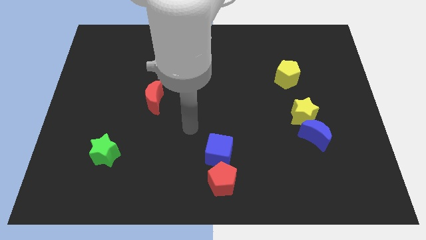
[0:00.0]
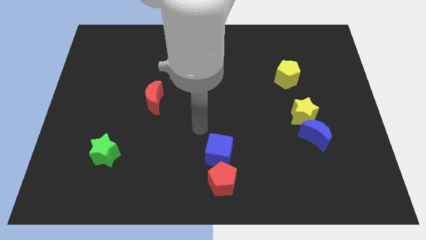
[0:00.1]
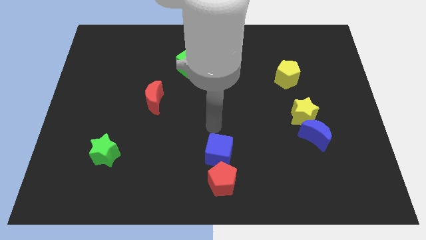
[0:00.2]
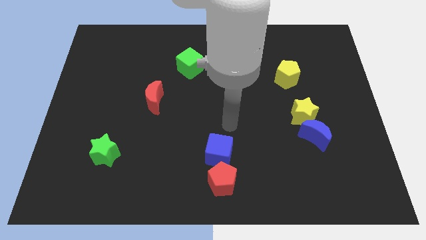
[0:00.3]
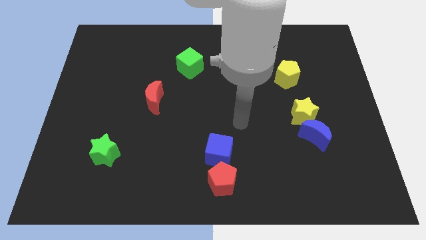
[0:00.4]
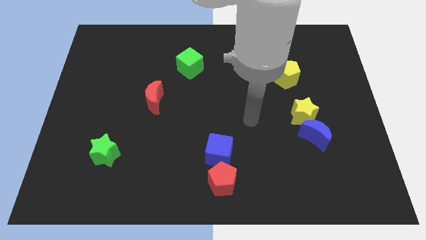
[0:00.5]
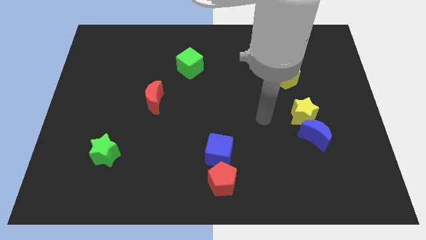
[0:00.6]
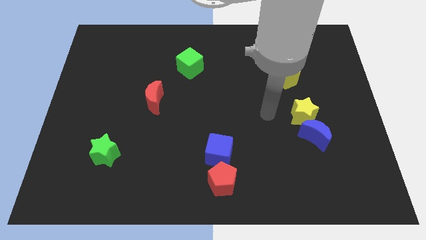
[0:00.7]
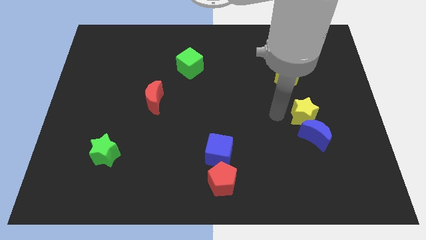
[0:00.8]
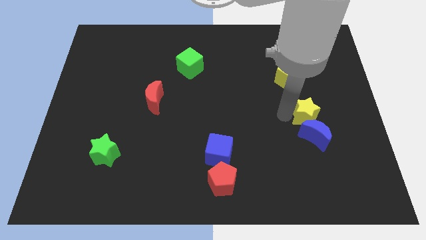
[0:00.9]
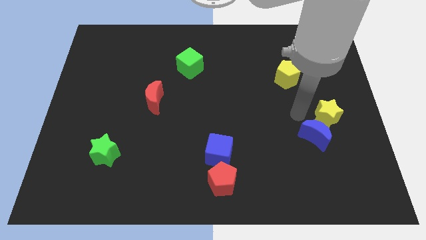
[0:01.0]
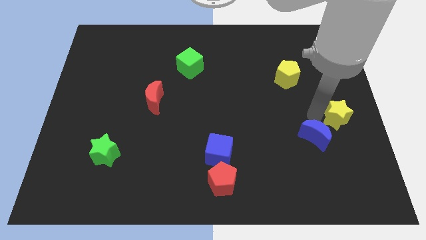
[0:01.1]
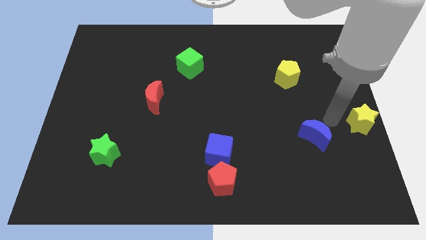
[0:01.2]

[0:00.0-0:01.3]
pull the blue moon apart from the yellow star

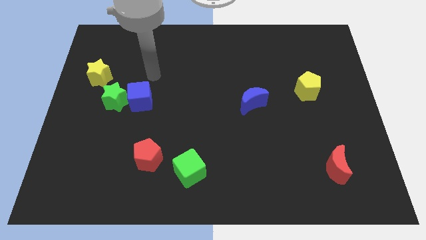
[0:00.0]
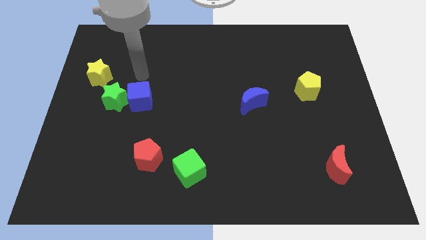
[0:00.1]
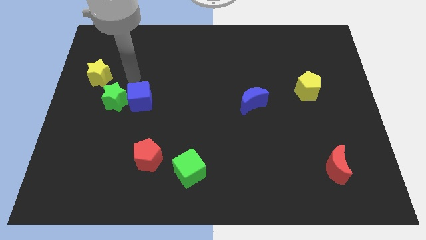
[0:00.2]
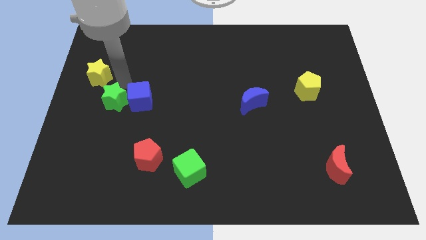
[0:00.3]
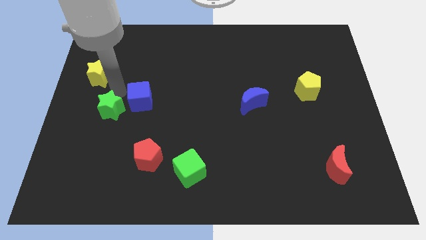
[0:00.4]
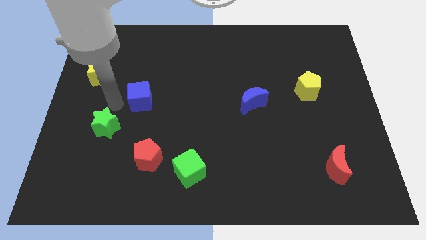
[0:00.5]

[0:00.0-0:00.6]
move the blue cube away from the green star

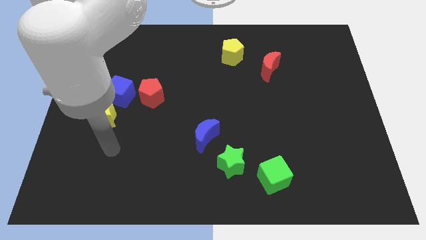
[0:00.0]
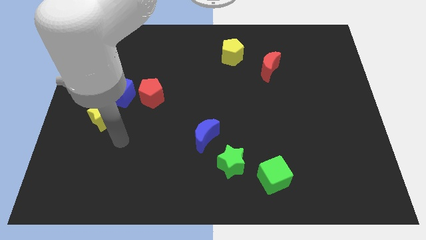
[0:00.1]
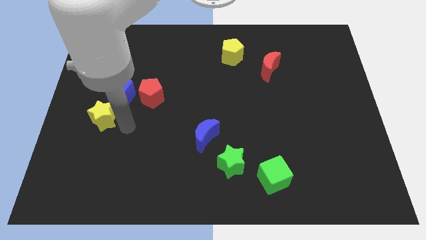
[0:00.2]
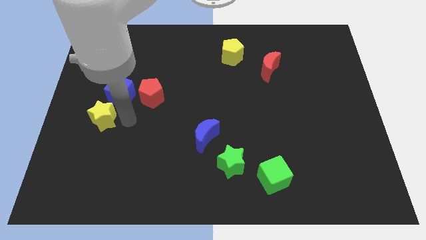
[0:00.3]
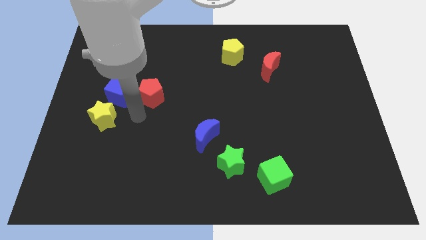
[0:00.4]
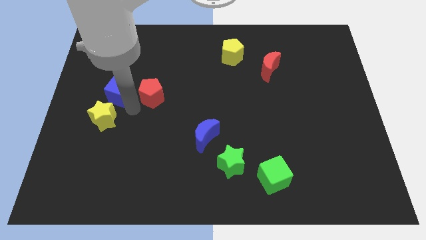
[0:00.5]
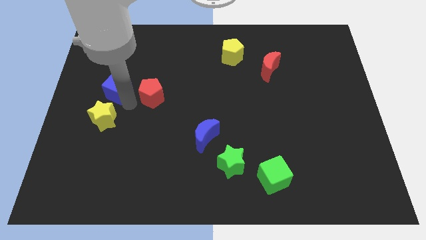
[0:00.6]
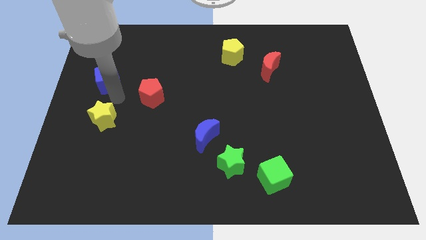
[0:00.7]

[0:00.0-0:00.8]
move the yellow star away from the blue cube

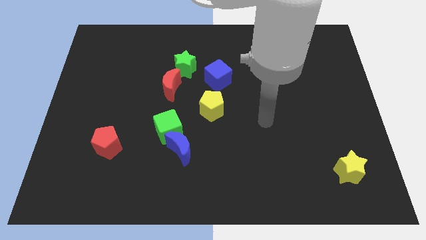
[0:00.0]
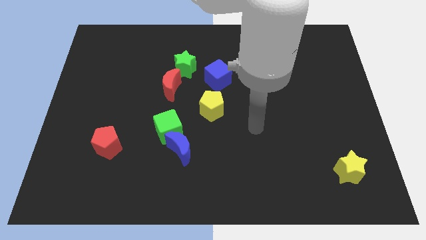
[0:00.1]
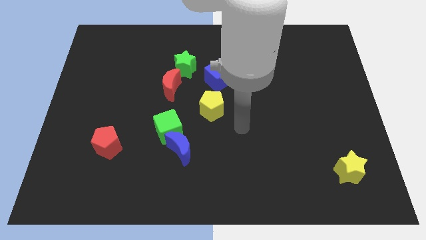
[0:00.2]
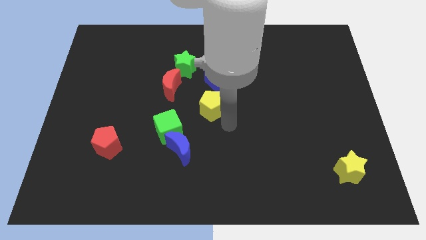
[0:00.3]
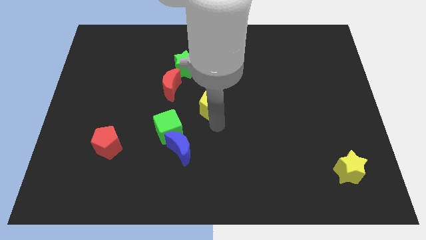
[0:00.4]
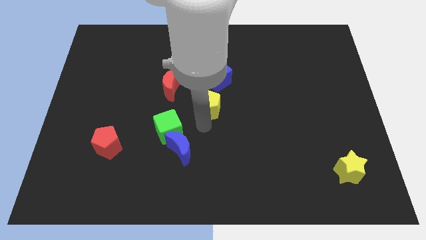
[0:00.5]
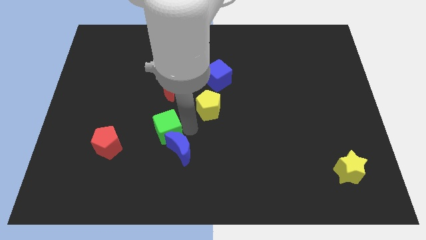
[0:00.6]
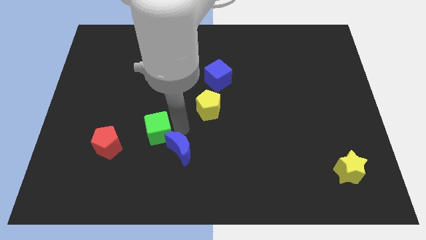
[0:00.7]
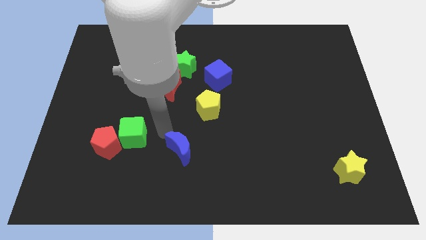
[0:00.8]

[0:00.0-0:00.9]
move the blue moon away from the green cube

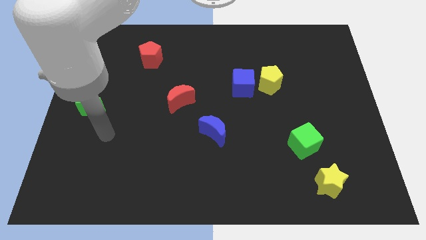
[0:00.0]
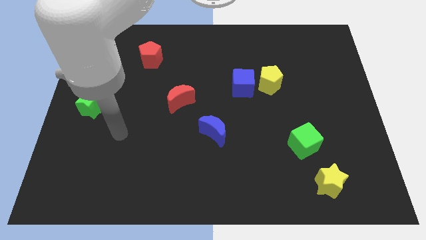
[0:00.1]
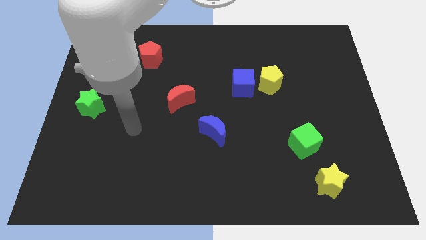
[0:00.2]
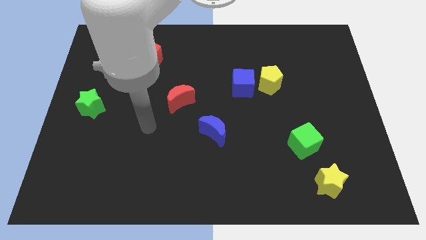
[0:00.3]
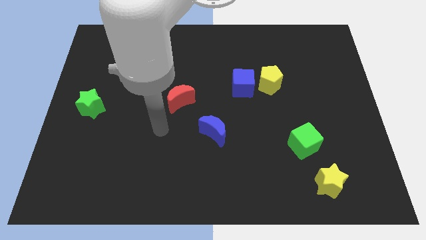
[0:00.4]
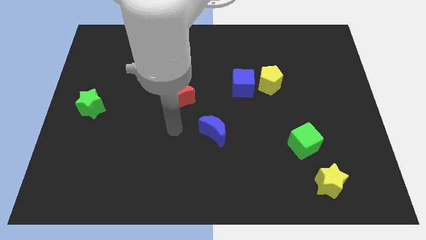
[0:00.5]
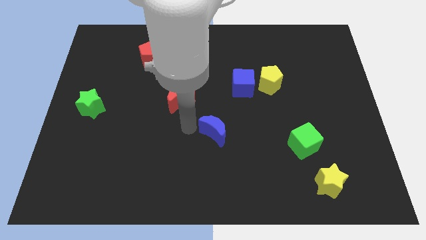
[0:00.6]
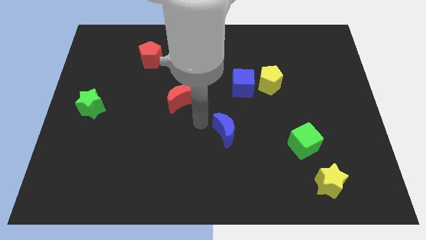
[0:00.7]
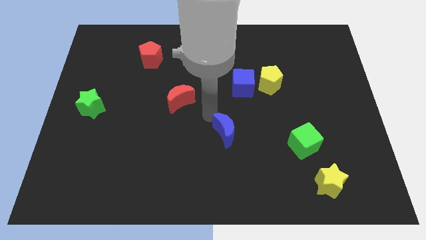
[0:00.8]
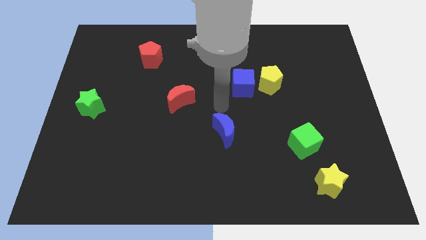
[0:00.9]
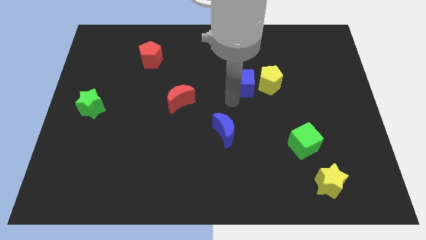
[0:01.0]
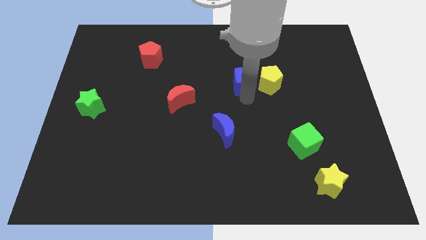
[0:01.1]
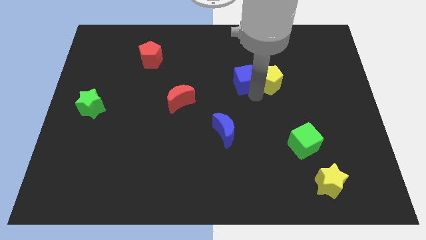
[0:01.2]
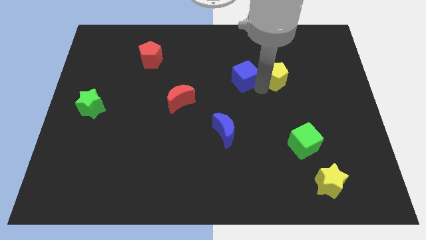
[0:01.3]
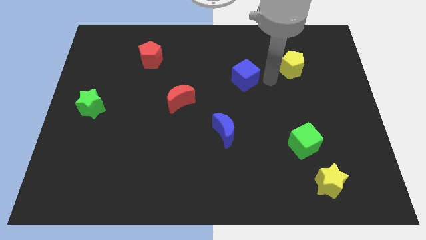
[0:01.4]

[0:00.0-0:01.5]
separate the blue cube from the yellow pentagon

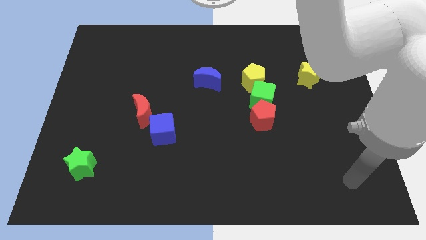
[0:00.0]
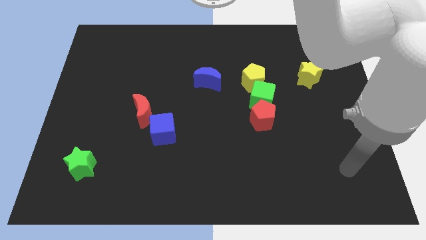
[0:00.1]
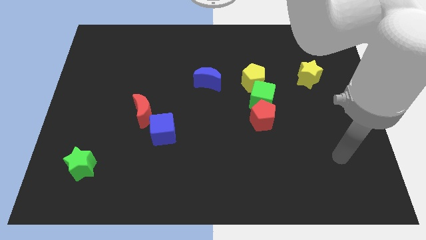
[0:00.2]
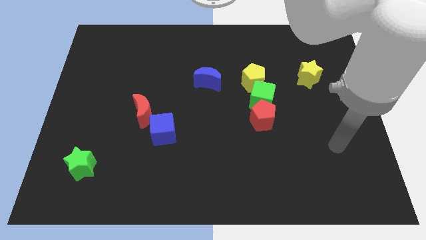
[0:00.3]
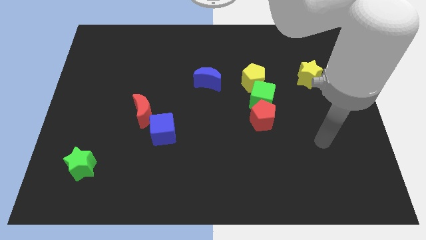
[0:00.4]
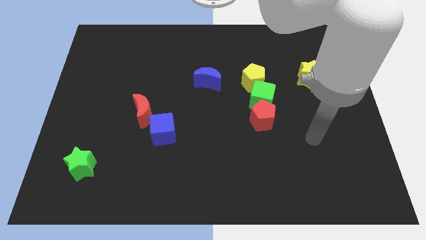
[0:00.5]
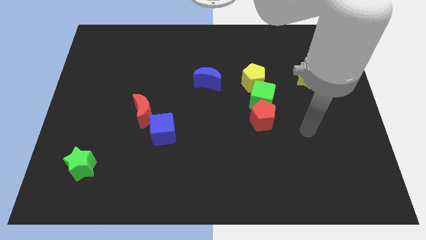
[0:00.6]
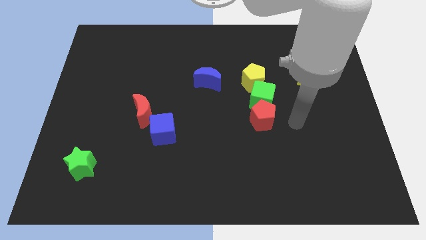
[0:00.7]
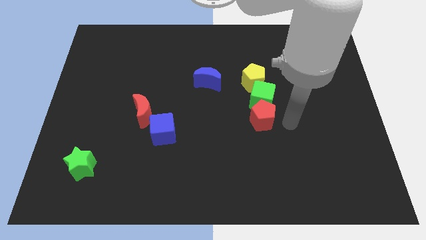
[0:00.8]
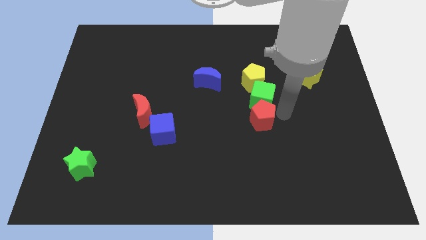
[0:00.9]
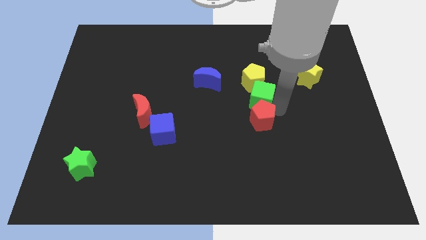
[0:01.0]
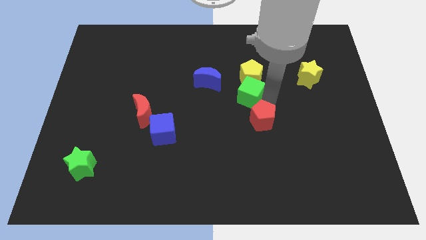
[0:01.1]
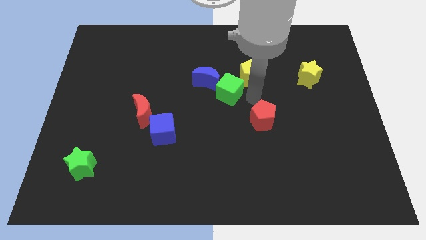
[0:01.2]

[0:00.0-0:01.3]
move the red pentagon away from the green cube

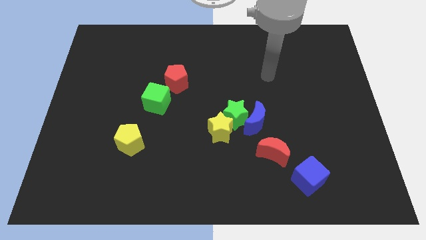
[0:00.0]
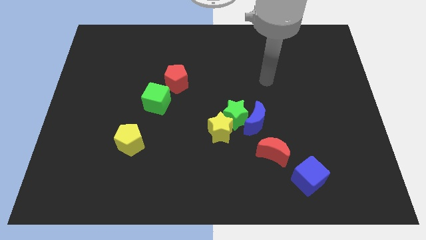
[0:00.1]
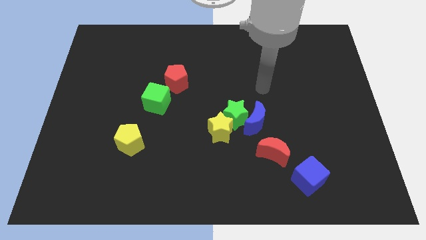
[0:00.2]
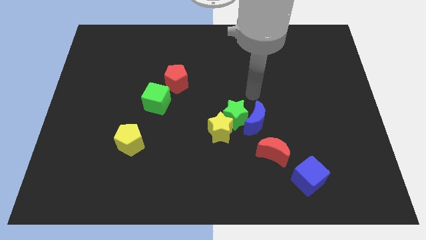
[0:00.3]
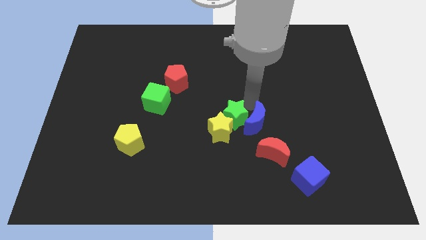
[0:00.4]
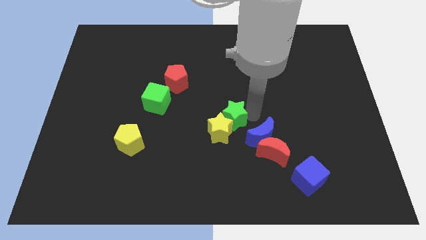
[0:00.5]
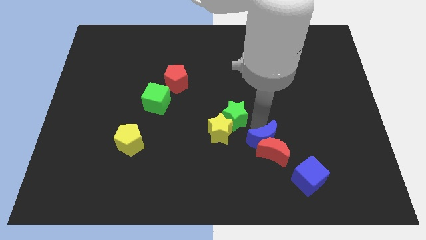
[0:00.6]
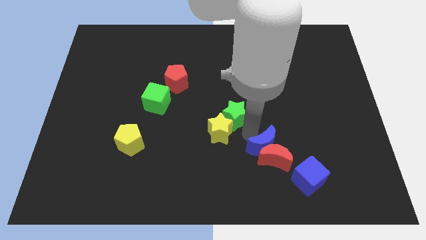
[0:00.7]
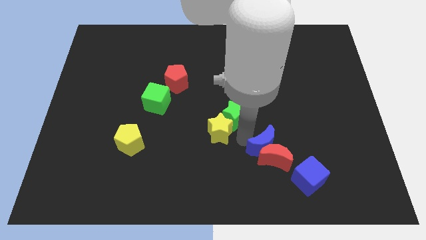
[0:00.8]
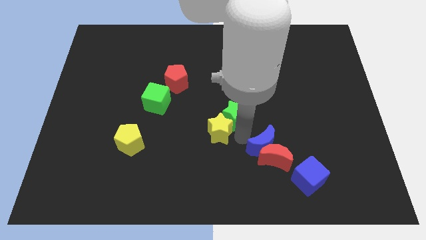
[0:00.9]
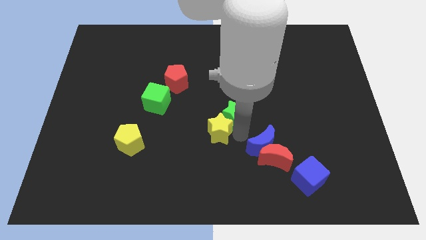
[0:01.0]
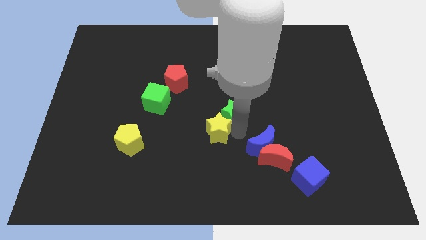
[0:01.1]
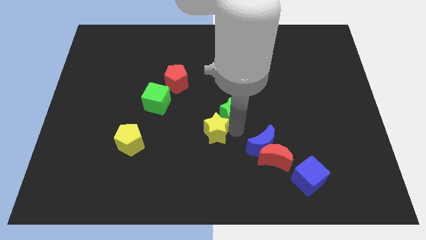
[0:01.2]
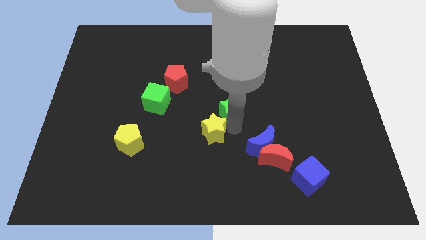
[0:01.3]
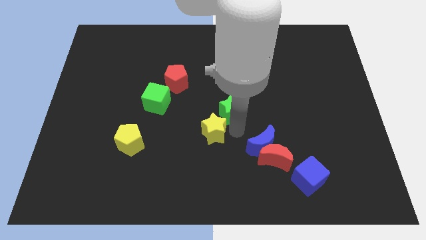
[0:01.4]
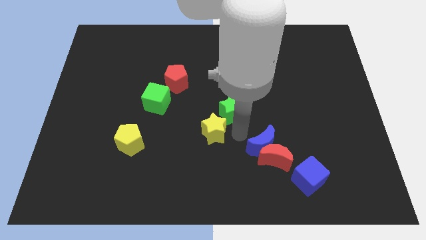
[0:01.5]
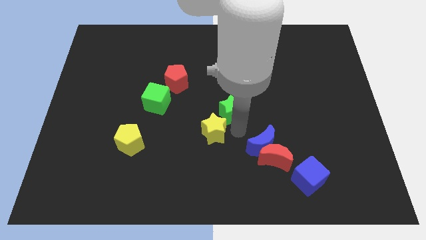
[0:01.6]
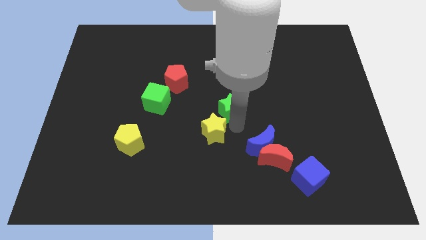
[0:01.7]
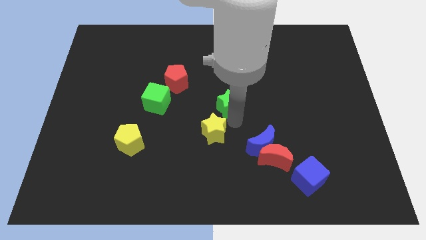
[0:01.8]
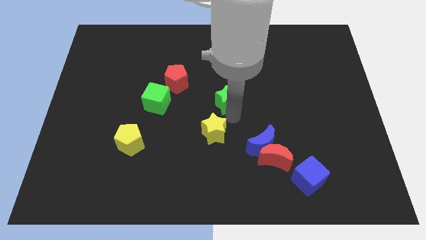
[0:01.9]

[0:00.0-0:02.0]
pull the green star apart from the yellow star and blue moon

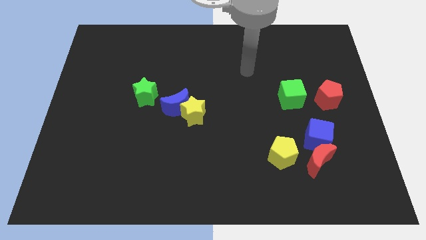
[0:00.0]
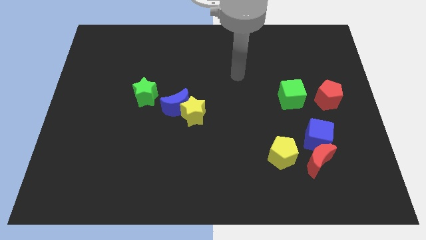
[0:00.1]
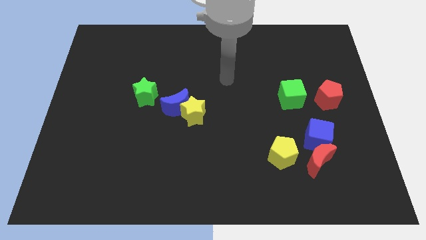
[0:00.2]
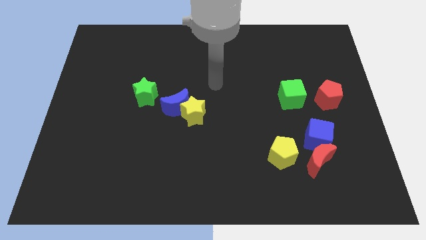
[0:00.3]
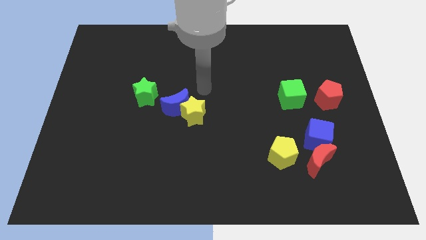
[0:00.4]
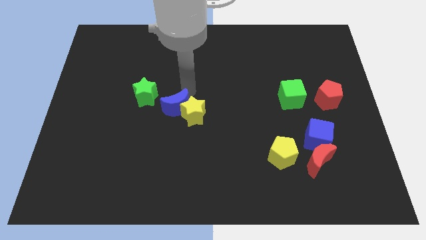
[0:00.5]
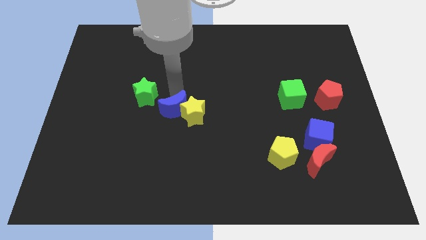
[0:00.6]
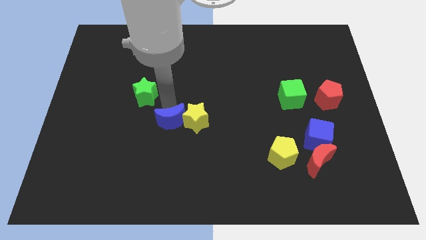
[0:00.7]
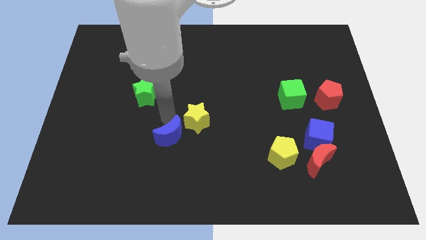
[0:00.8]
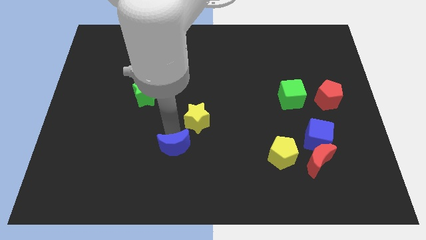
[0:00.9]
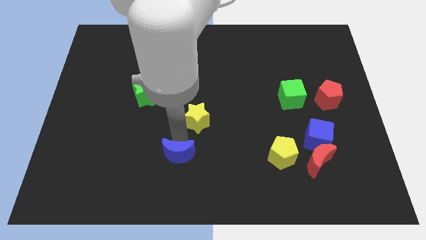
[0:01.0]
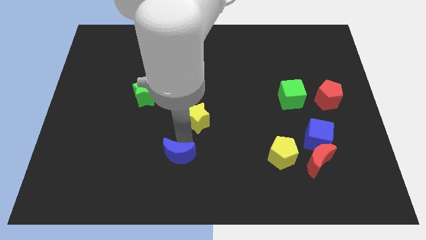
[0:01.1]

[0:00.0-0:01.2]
move the yellow star away from the blue moon
